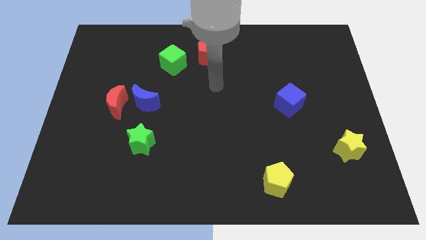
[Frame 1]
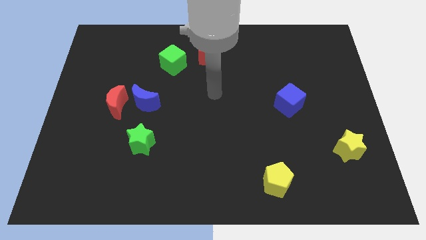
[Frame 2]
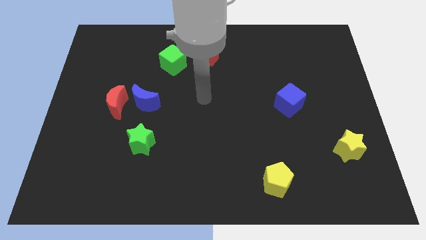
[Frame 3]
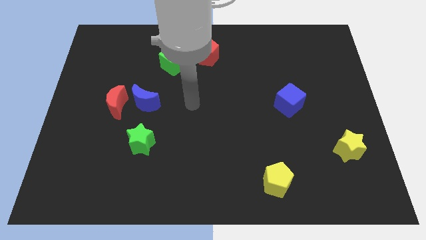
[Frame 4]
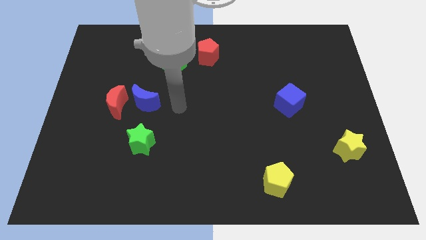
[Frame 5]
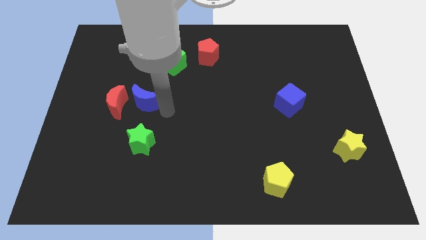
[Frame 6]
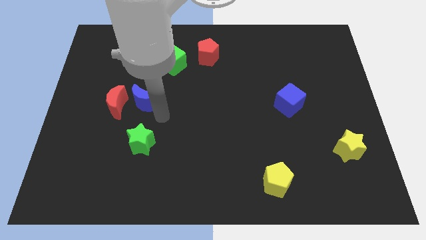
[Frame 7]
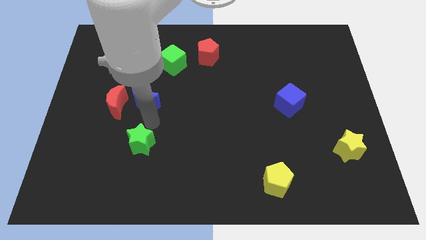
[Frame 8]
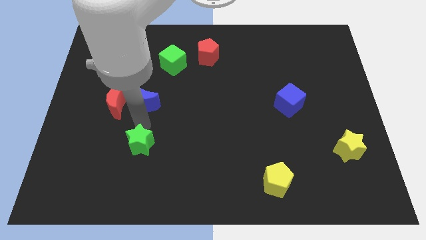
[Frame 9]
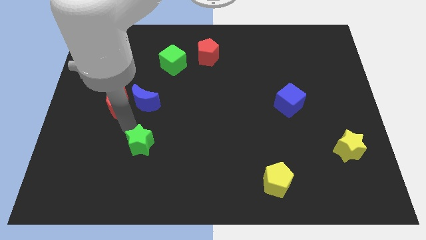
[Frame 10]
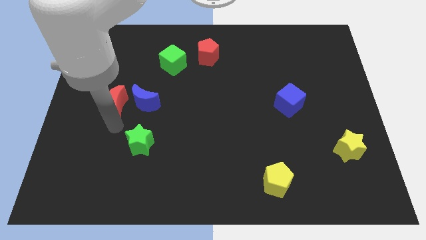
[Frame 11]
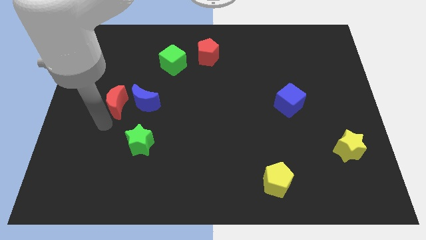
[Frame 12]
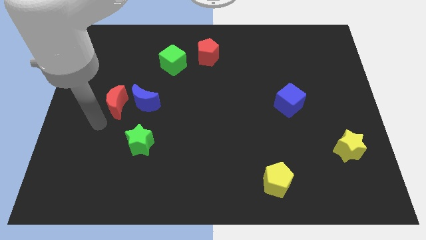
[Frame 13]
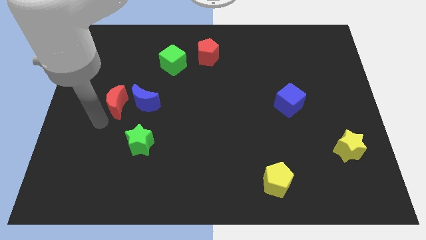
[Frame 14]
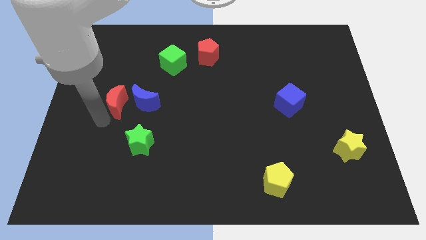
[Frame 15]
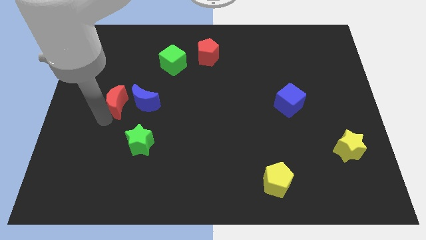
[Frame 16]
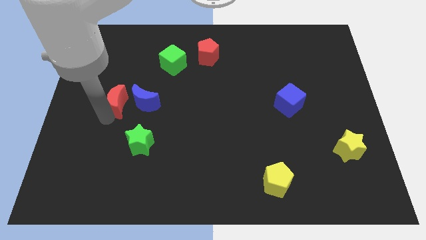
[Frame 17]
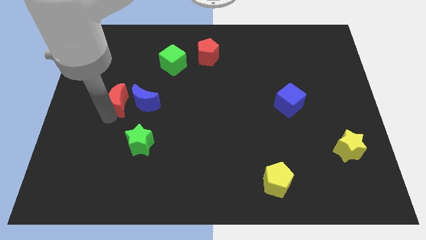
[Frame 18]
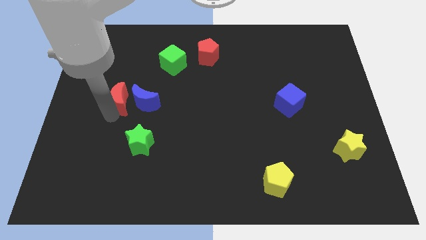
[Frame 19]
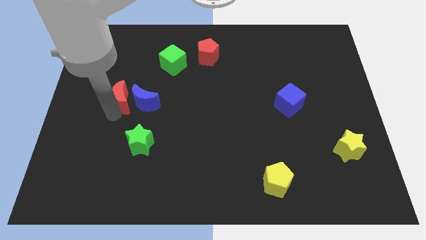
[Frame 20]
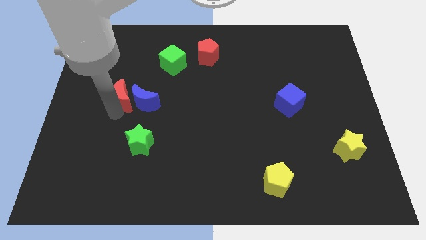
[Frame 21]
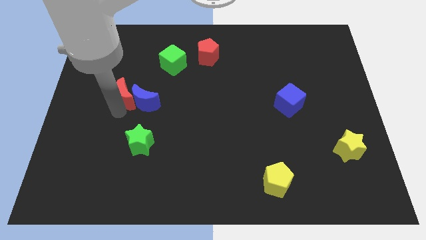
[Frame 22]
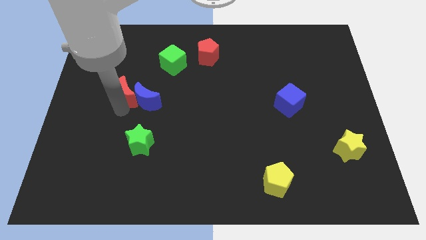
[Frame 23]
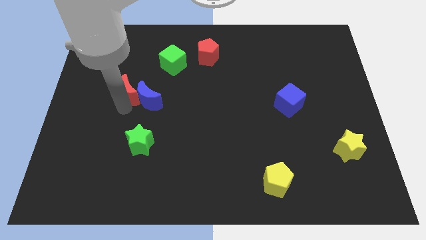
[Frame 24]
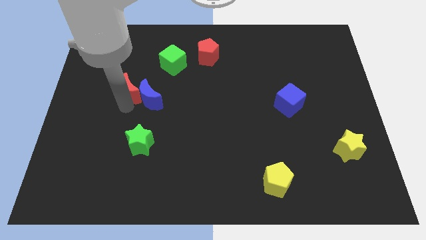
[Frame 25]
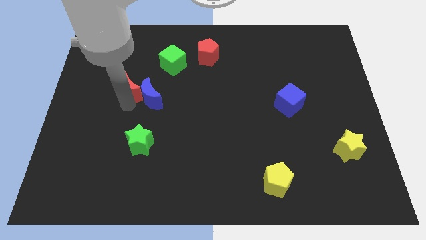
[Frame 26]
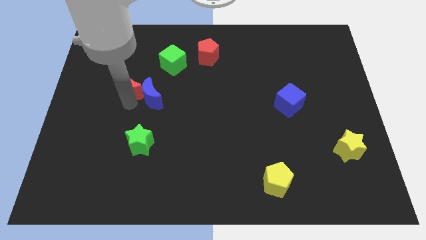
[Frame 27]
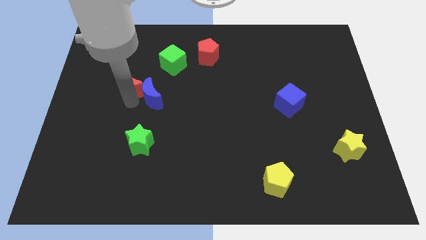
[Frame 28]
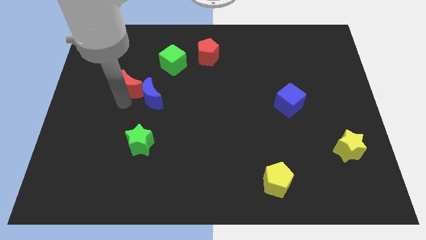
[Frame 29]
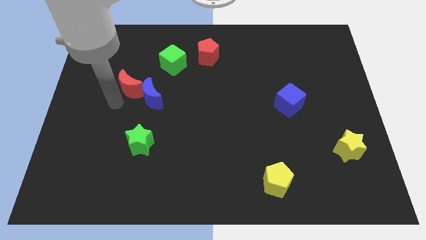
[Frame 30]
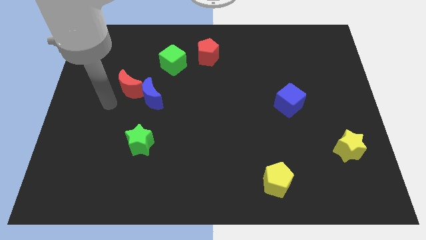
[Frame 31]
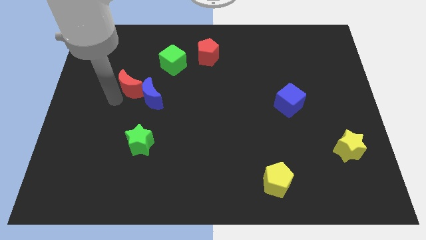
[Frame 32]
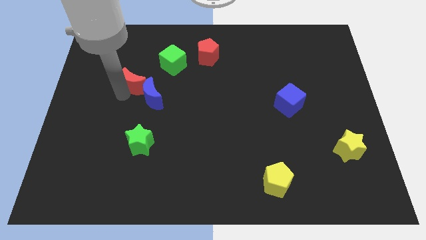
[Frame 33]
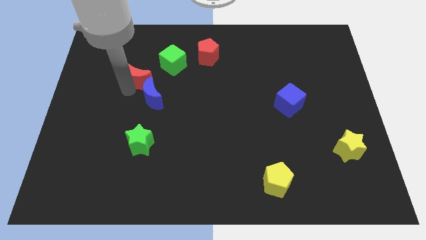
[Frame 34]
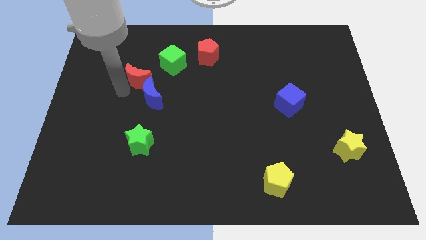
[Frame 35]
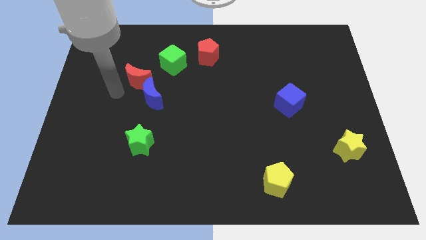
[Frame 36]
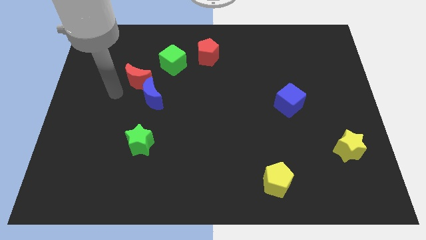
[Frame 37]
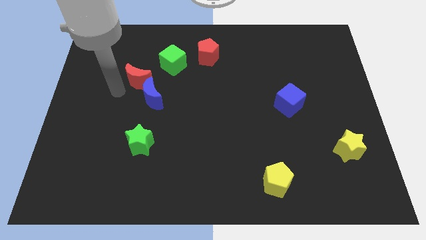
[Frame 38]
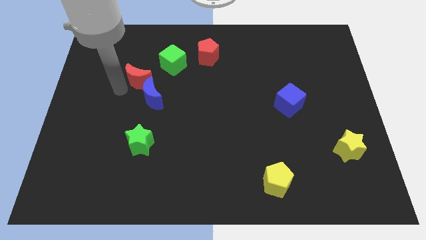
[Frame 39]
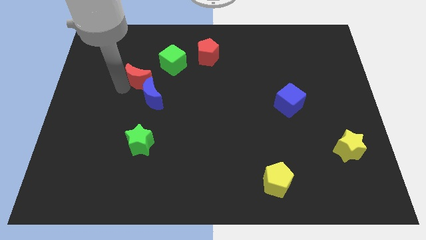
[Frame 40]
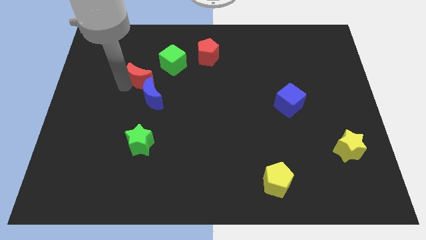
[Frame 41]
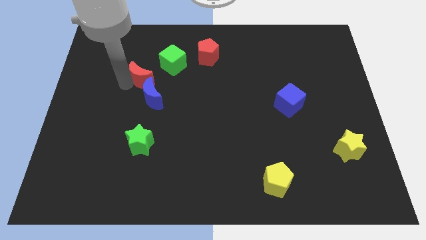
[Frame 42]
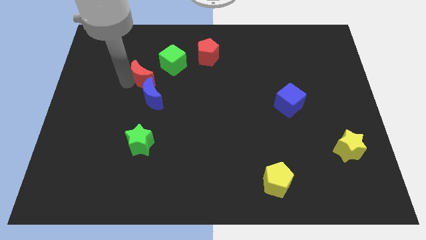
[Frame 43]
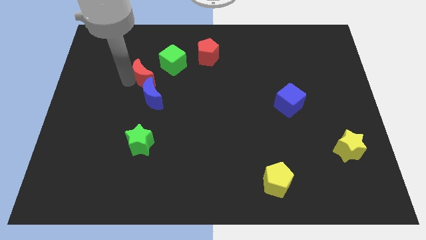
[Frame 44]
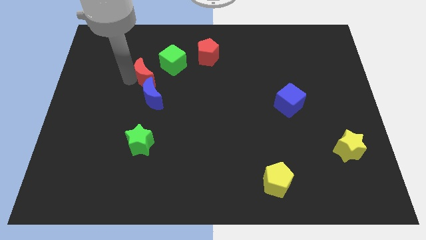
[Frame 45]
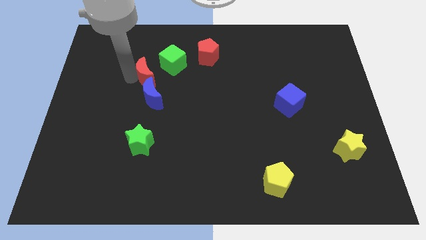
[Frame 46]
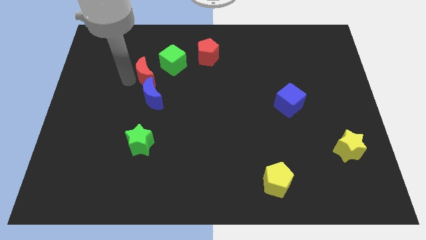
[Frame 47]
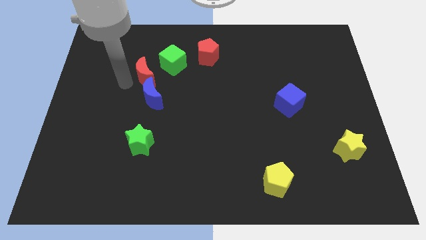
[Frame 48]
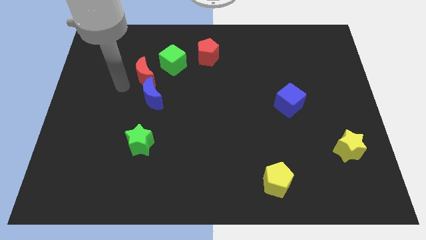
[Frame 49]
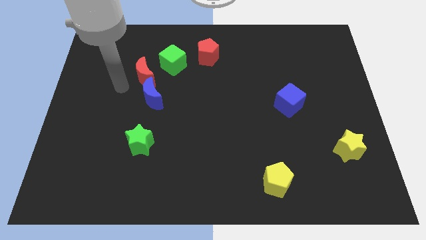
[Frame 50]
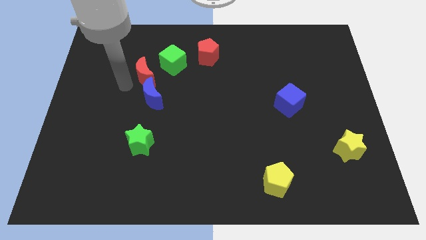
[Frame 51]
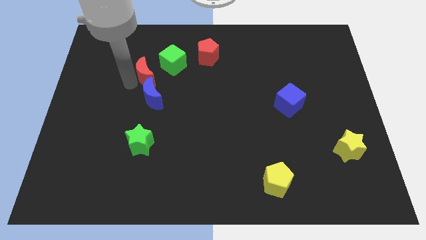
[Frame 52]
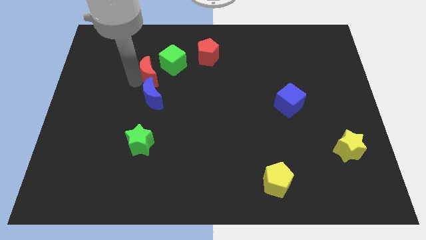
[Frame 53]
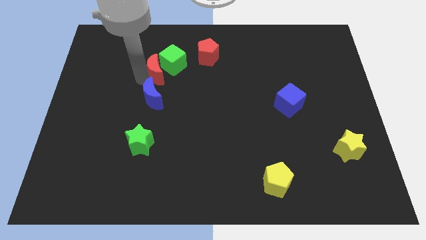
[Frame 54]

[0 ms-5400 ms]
put the red moon close to the green cube

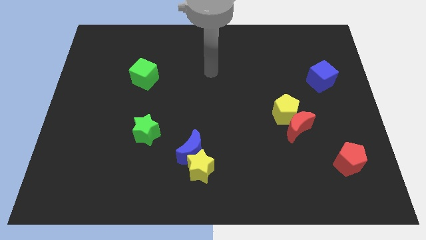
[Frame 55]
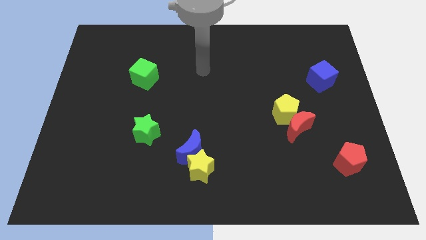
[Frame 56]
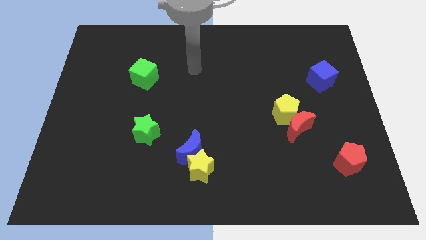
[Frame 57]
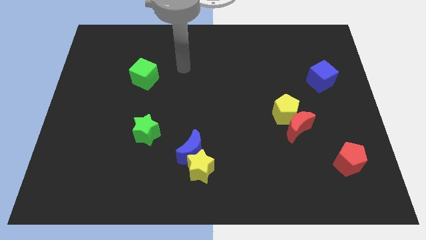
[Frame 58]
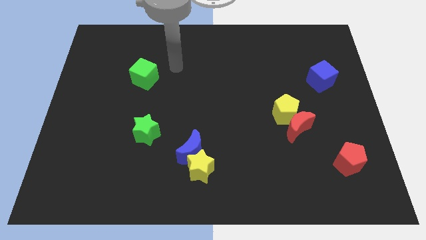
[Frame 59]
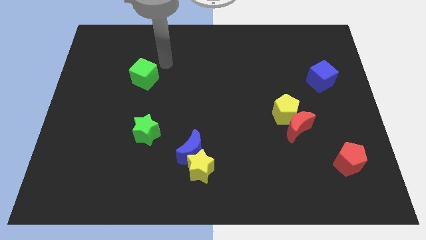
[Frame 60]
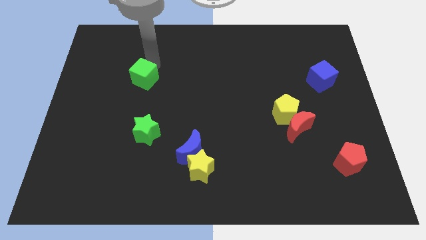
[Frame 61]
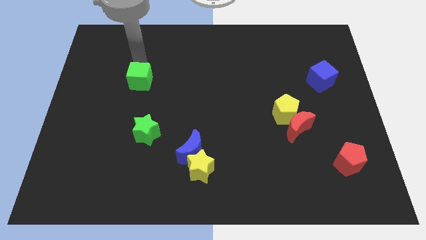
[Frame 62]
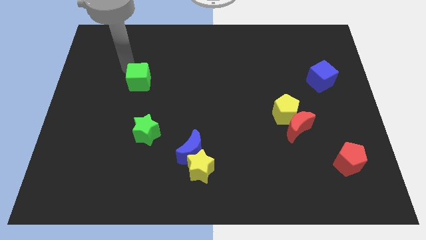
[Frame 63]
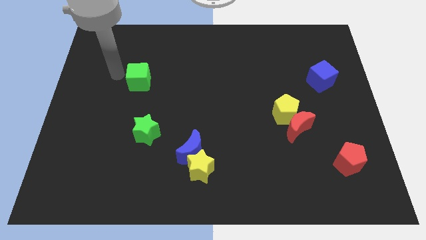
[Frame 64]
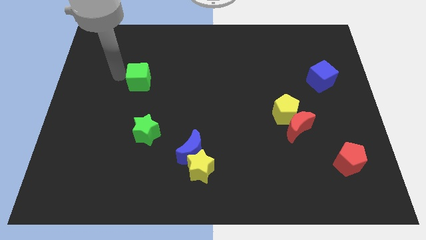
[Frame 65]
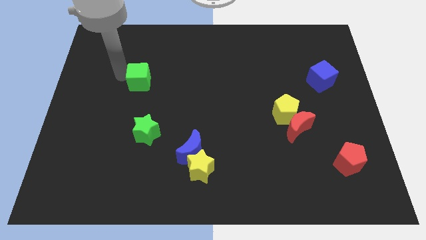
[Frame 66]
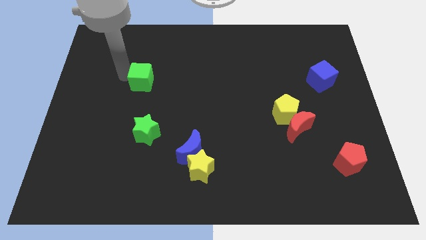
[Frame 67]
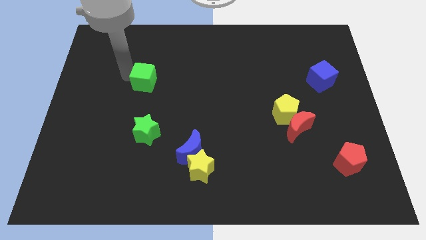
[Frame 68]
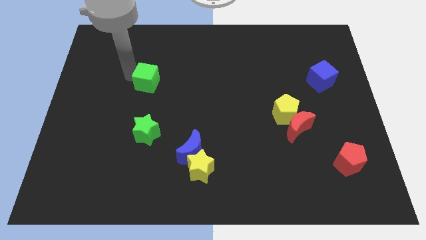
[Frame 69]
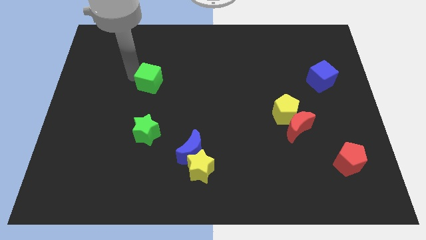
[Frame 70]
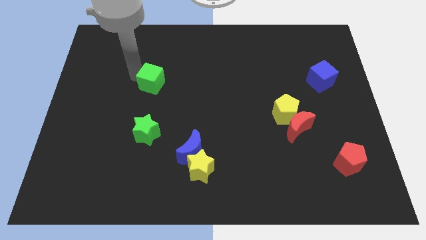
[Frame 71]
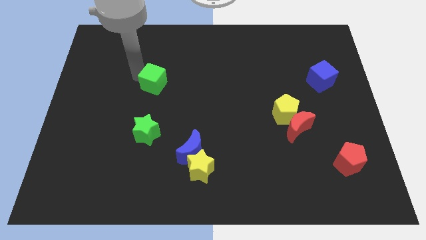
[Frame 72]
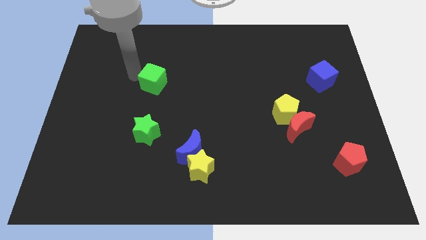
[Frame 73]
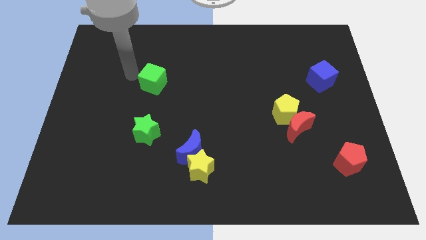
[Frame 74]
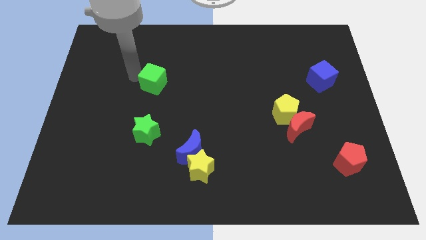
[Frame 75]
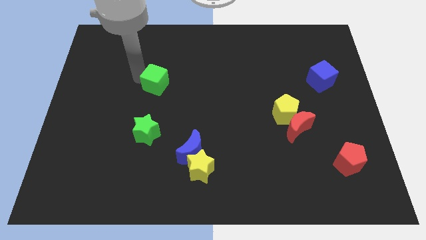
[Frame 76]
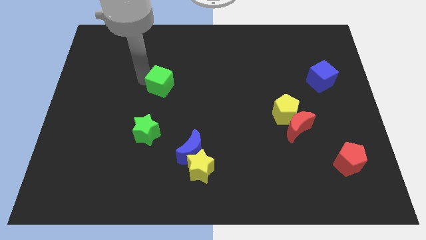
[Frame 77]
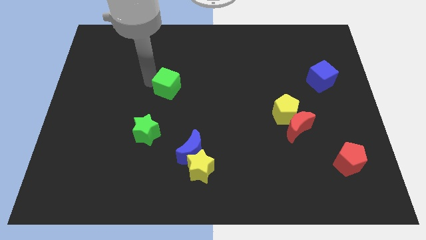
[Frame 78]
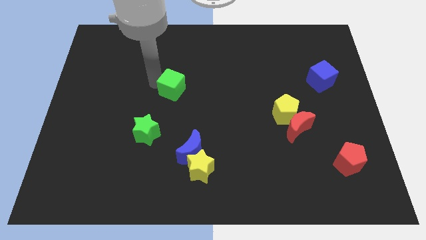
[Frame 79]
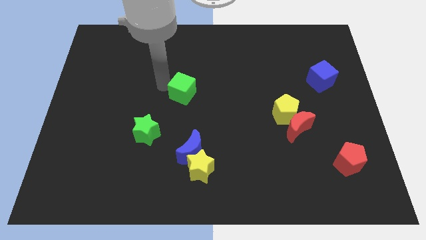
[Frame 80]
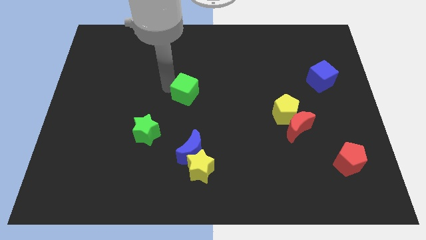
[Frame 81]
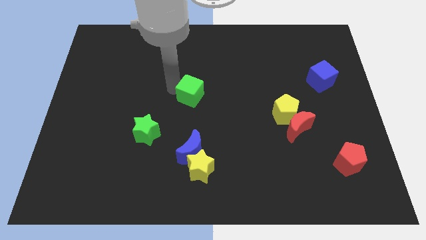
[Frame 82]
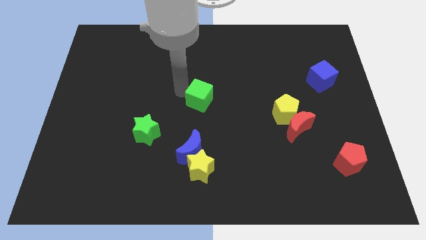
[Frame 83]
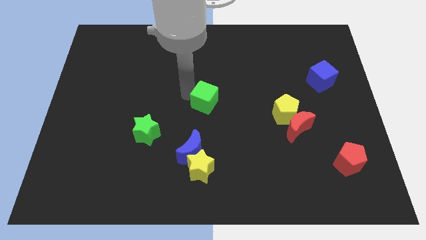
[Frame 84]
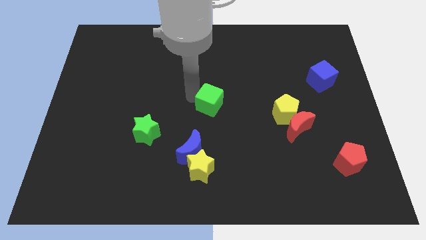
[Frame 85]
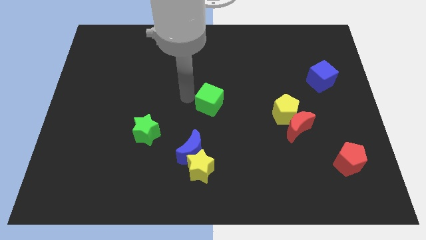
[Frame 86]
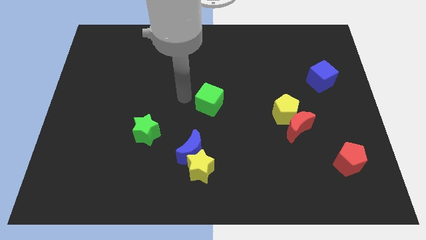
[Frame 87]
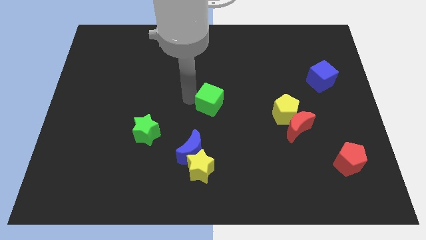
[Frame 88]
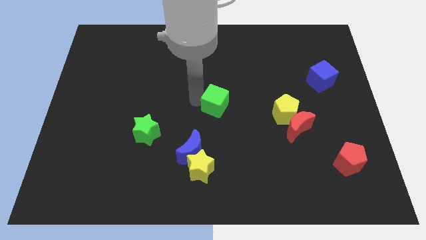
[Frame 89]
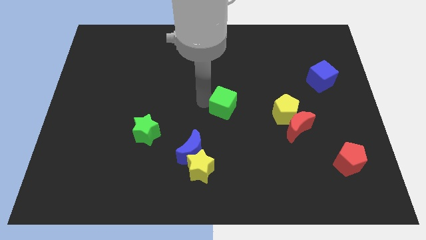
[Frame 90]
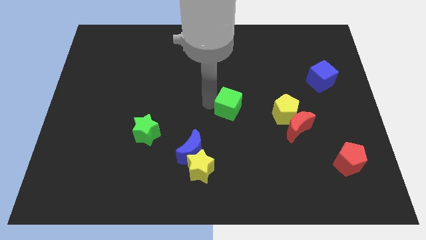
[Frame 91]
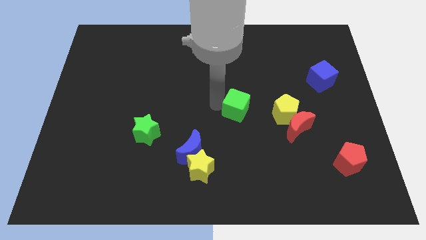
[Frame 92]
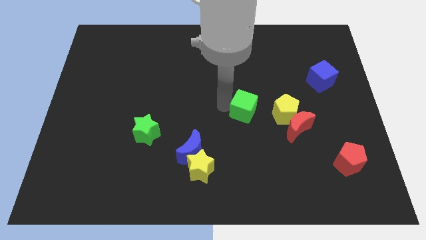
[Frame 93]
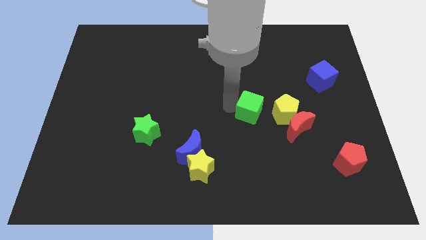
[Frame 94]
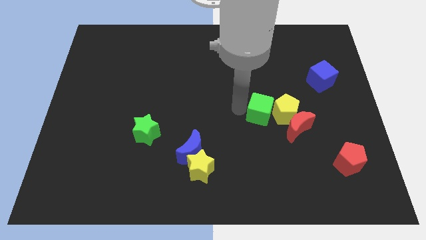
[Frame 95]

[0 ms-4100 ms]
put the green cube towards the yellow pentagon
